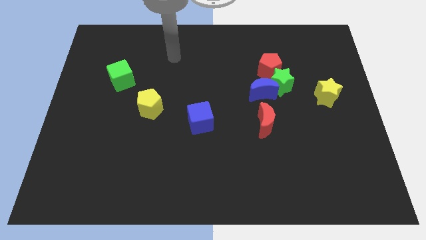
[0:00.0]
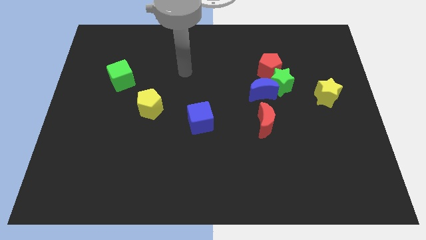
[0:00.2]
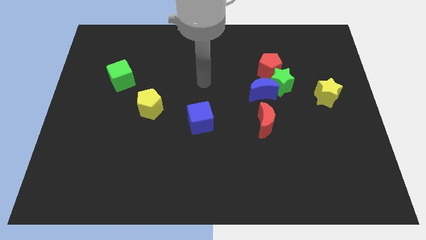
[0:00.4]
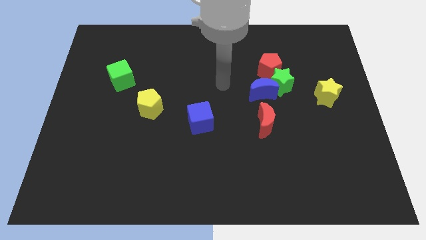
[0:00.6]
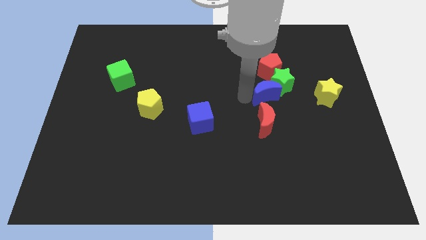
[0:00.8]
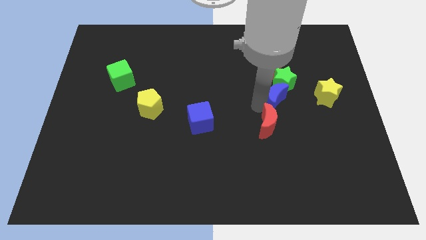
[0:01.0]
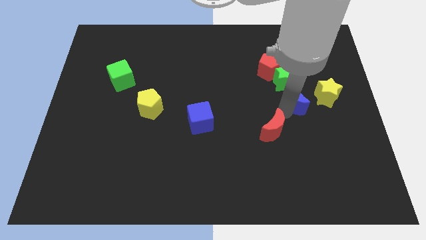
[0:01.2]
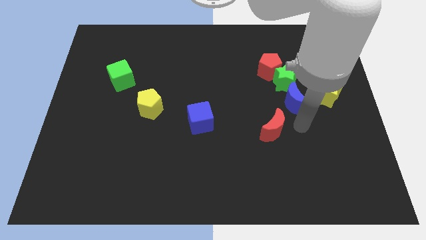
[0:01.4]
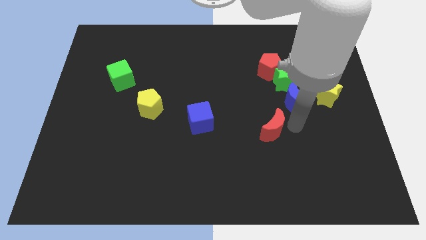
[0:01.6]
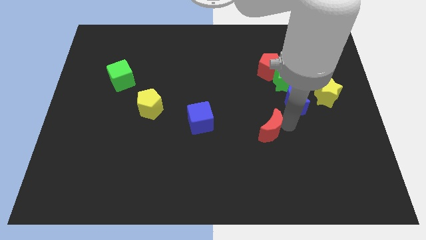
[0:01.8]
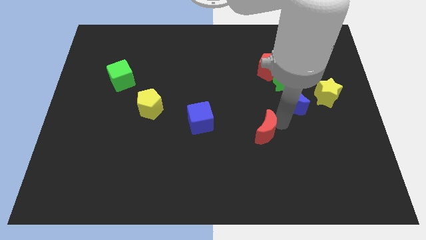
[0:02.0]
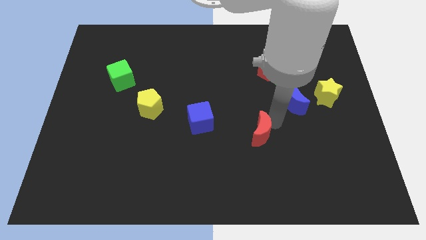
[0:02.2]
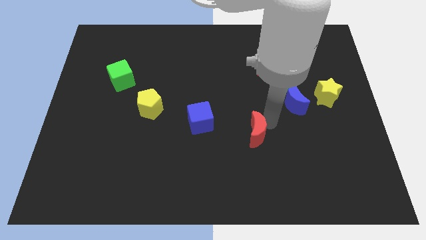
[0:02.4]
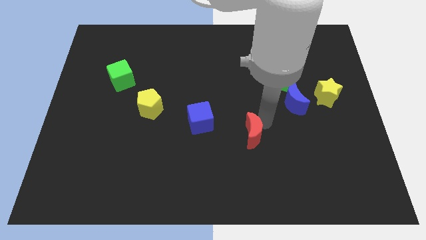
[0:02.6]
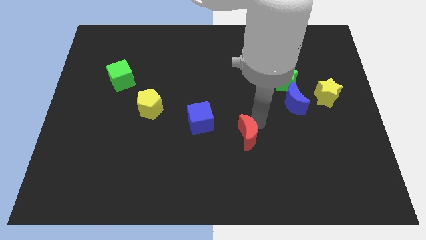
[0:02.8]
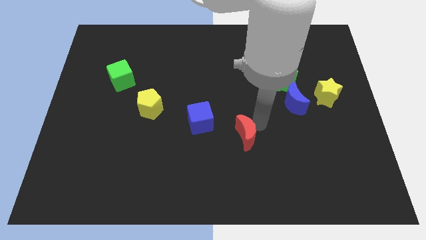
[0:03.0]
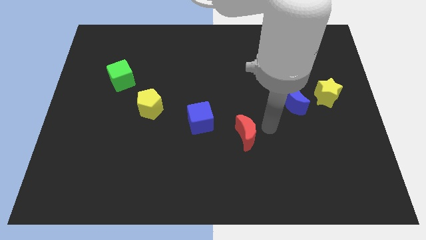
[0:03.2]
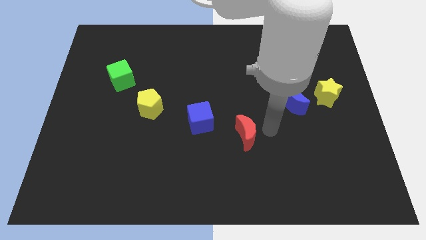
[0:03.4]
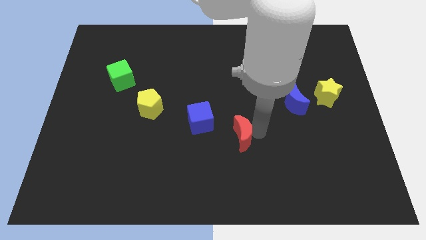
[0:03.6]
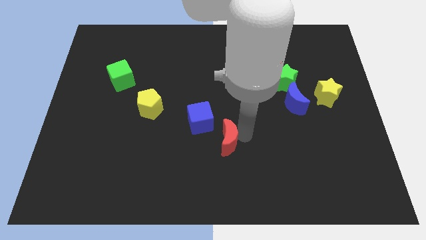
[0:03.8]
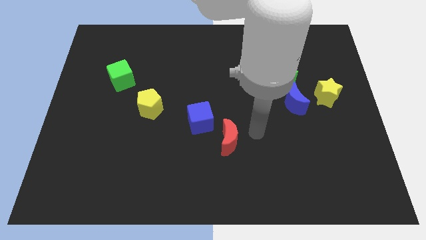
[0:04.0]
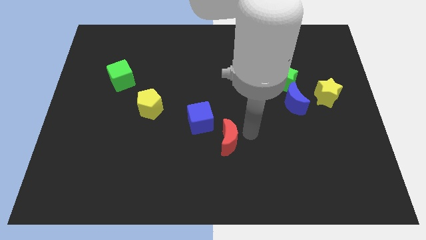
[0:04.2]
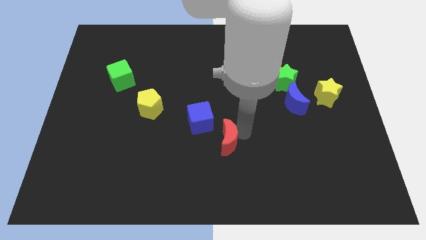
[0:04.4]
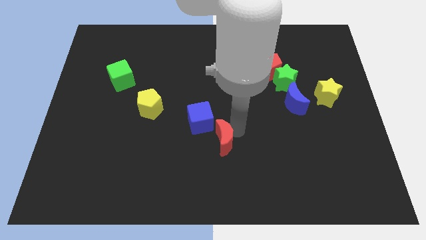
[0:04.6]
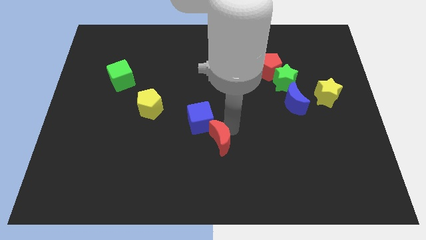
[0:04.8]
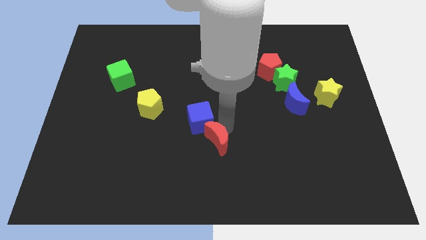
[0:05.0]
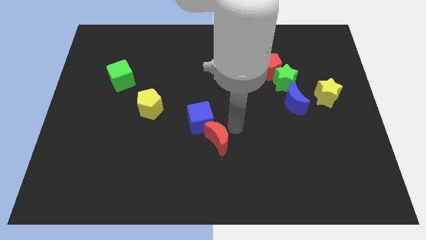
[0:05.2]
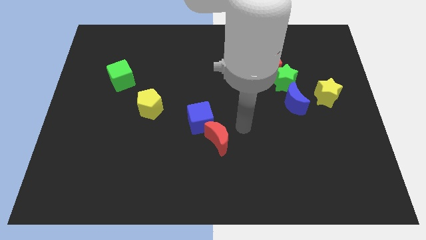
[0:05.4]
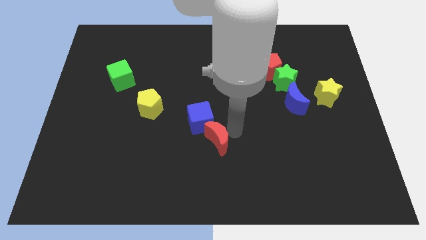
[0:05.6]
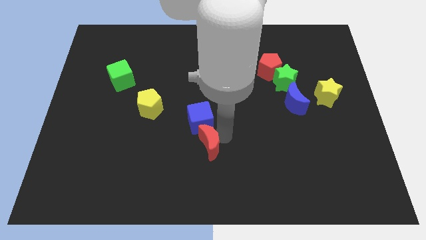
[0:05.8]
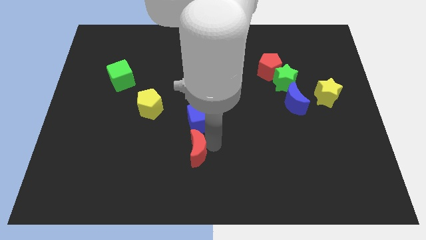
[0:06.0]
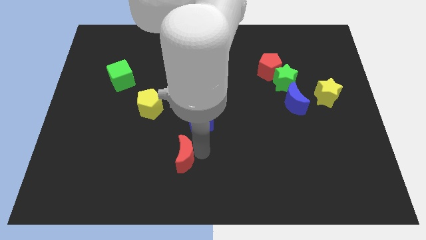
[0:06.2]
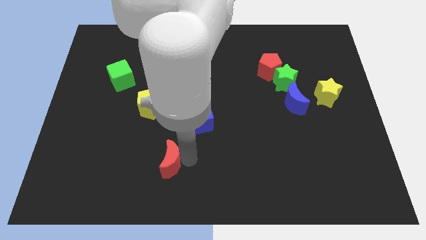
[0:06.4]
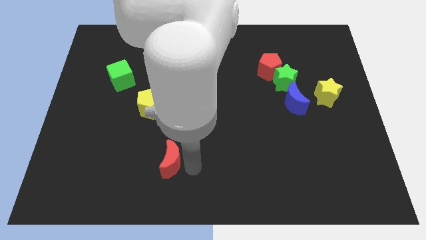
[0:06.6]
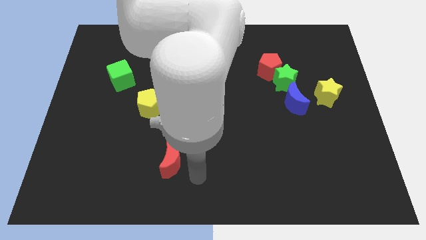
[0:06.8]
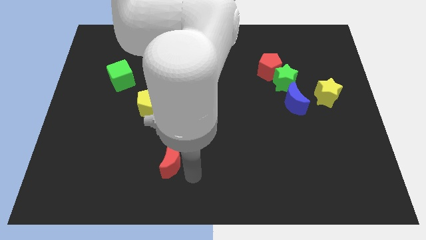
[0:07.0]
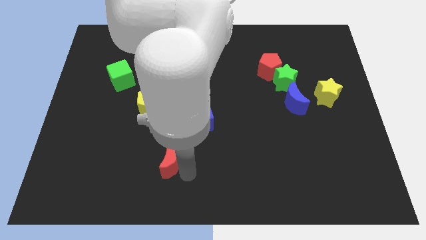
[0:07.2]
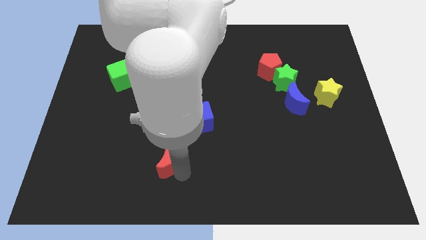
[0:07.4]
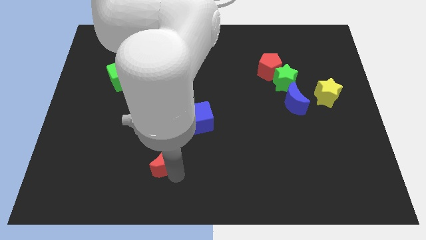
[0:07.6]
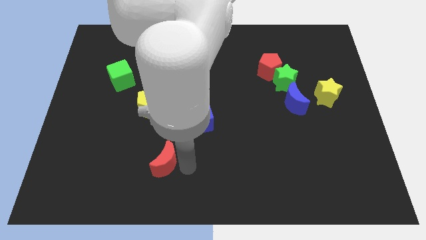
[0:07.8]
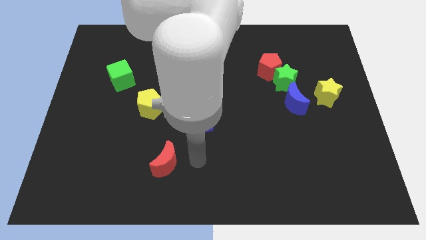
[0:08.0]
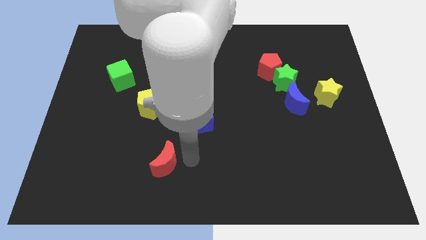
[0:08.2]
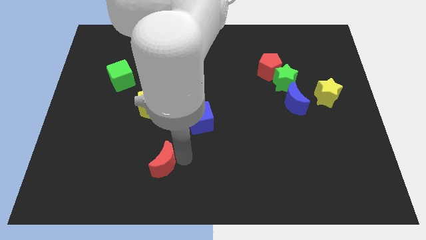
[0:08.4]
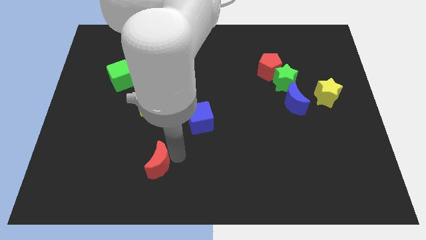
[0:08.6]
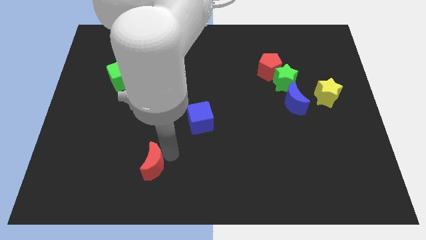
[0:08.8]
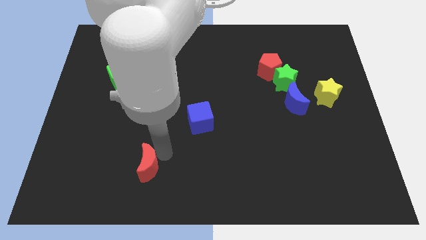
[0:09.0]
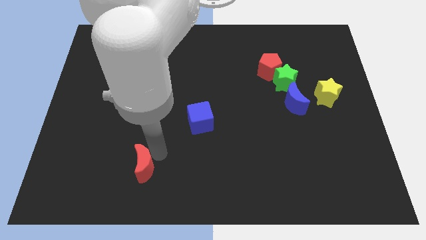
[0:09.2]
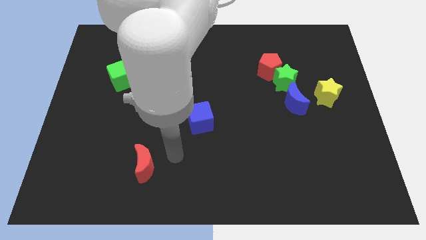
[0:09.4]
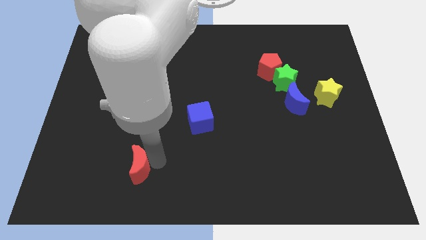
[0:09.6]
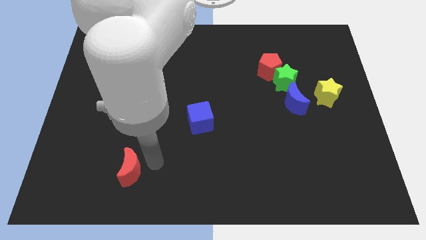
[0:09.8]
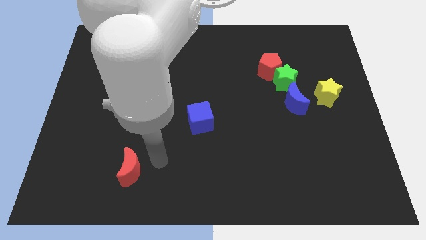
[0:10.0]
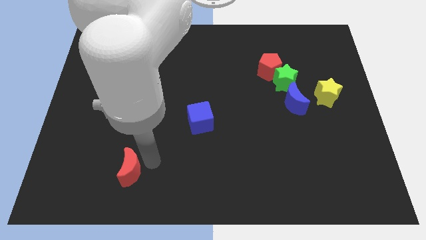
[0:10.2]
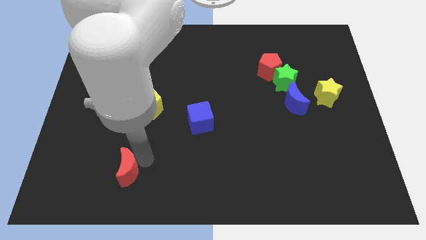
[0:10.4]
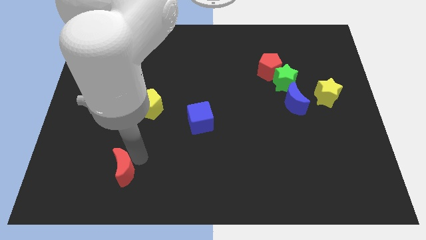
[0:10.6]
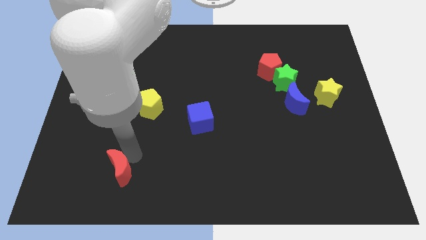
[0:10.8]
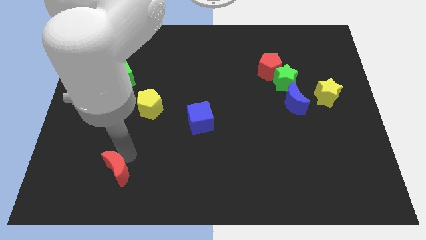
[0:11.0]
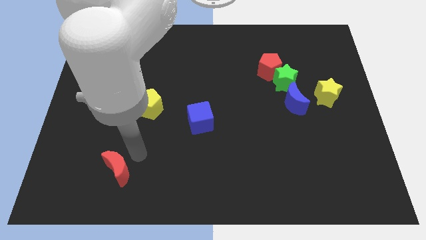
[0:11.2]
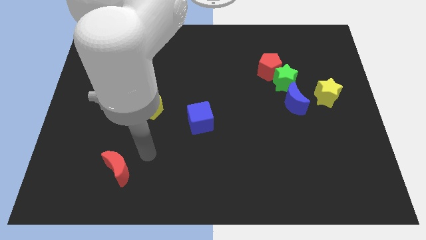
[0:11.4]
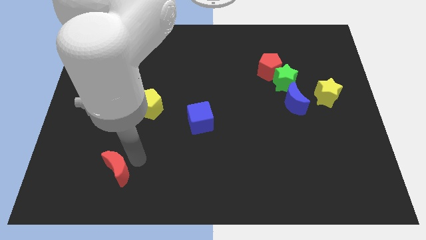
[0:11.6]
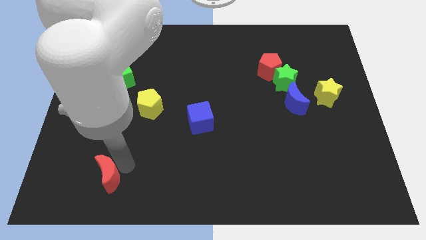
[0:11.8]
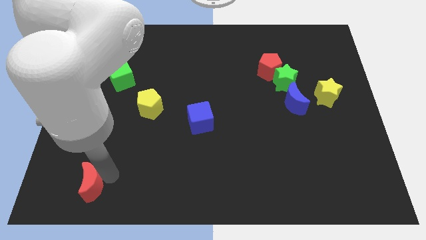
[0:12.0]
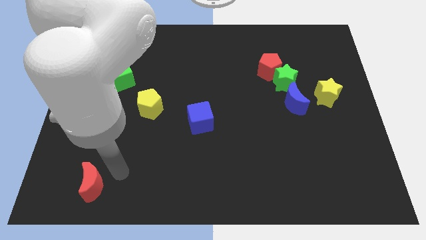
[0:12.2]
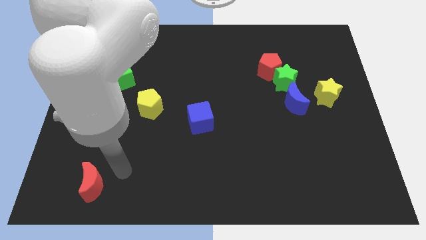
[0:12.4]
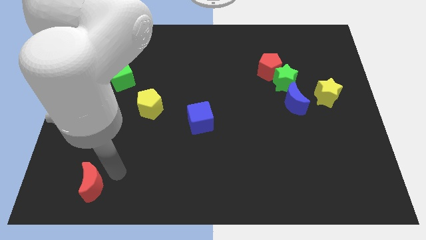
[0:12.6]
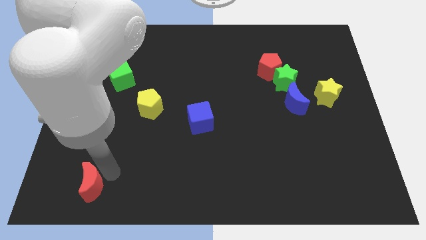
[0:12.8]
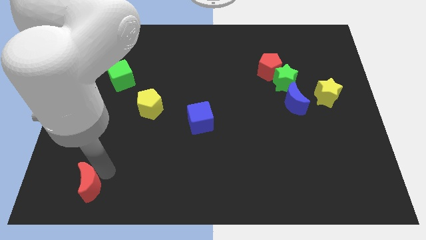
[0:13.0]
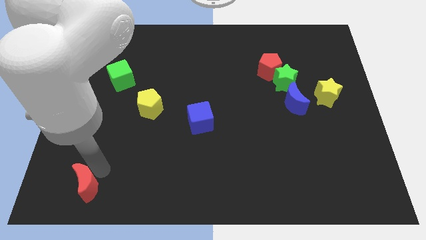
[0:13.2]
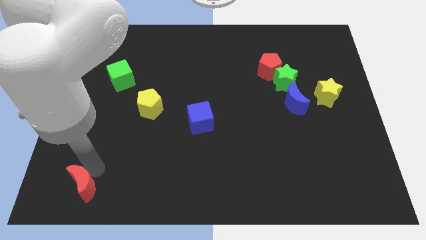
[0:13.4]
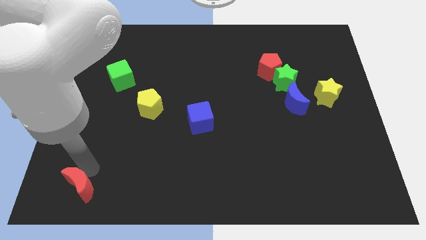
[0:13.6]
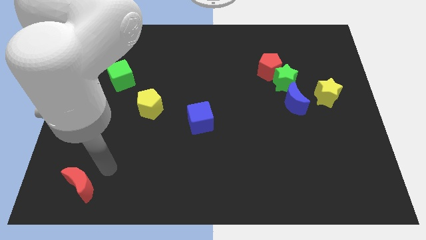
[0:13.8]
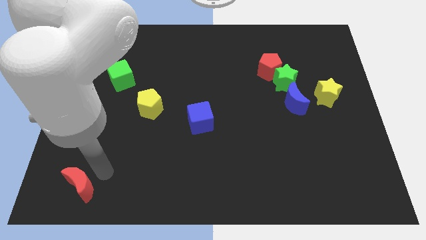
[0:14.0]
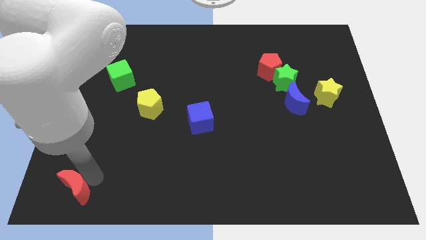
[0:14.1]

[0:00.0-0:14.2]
push the red moon to the bottom left corner
